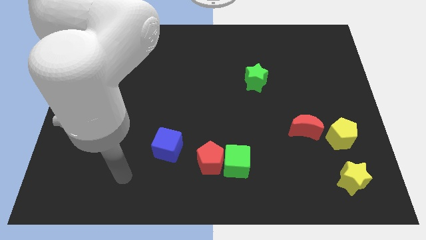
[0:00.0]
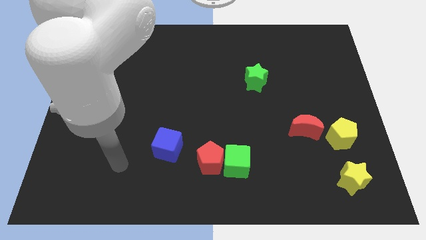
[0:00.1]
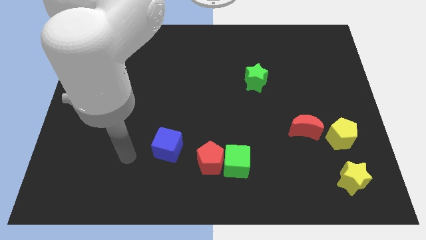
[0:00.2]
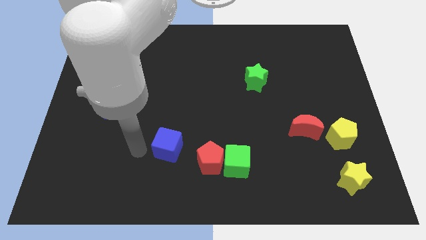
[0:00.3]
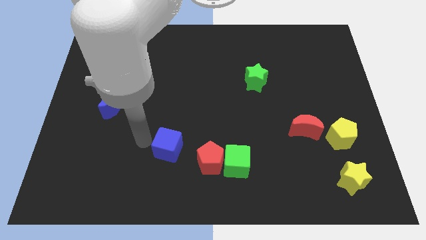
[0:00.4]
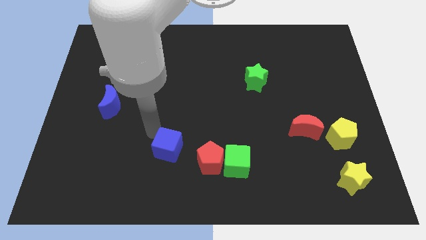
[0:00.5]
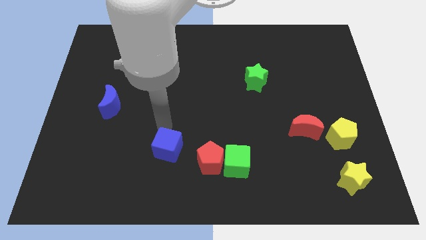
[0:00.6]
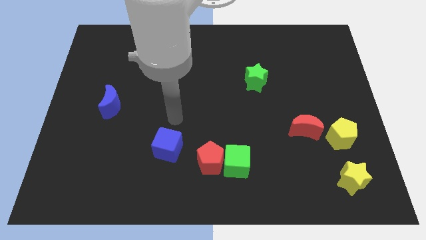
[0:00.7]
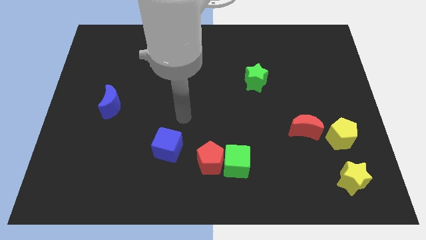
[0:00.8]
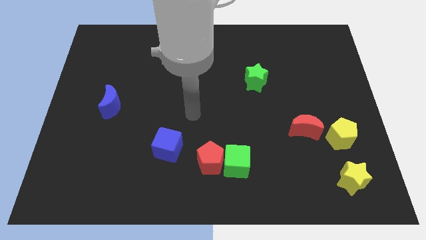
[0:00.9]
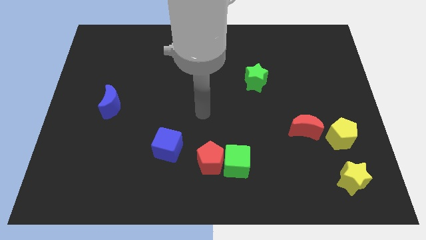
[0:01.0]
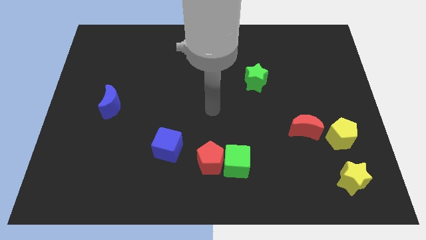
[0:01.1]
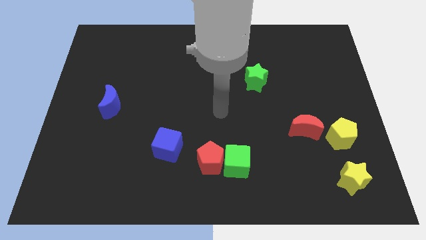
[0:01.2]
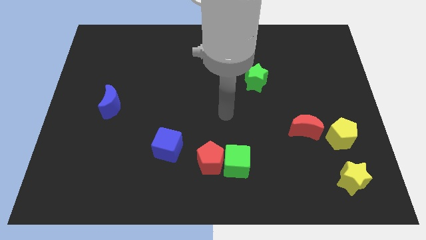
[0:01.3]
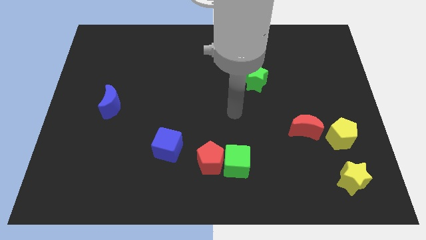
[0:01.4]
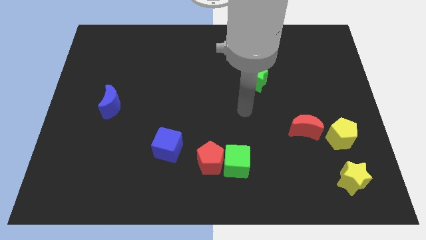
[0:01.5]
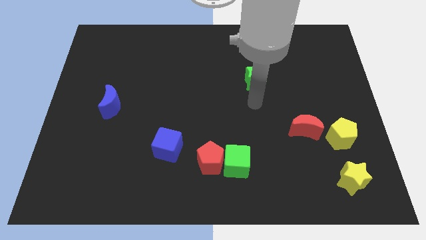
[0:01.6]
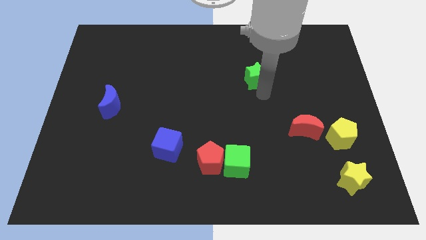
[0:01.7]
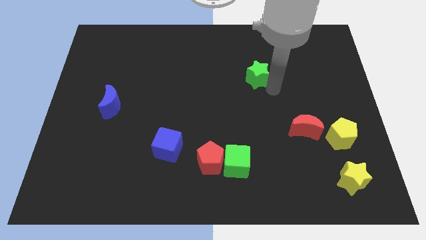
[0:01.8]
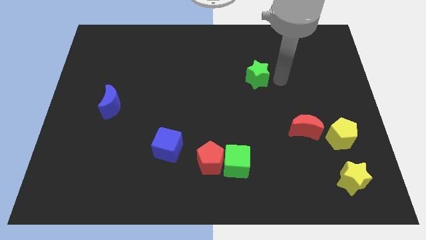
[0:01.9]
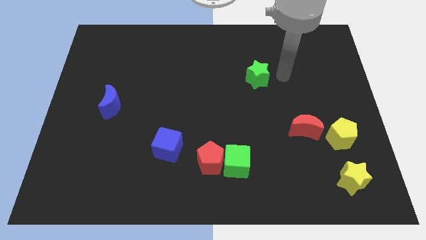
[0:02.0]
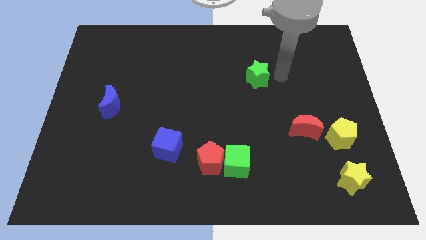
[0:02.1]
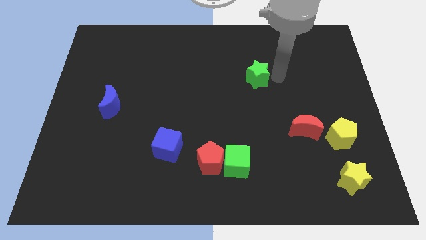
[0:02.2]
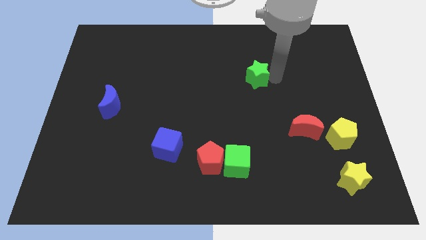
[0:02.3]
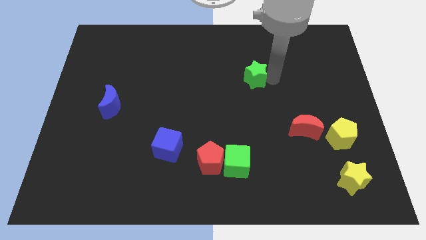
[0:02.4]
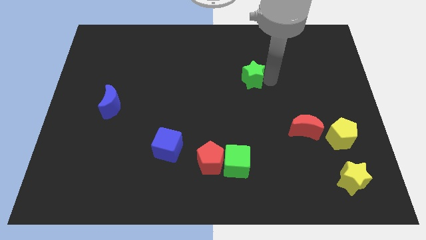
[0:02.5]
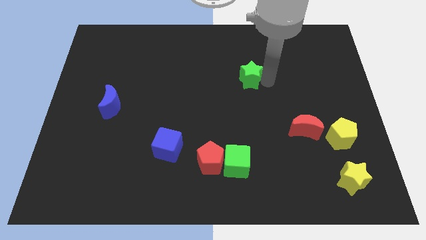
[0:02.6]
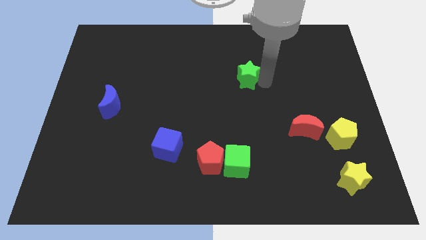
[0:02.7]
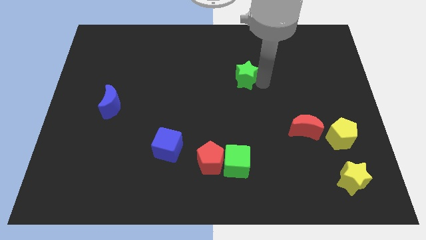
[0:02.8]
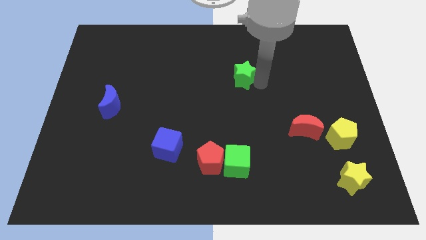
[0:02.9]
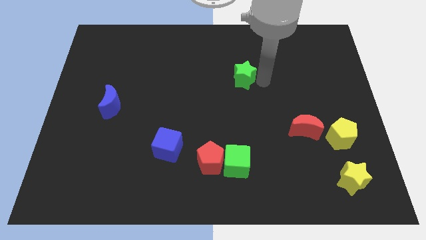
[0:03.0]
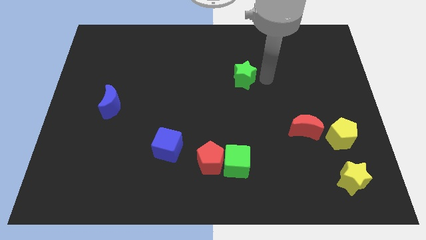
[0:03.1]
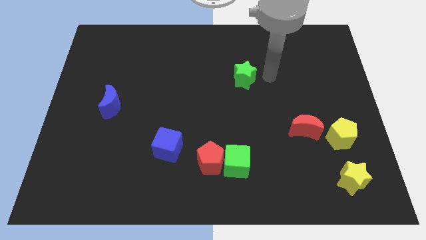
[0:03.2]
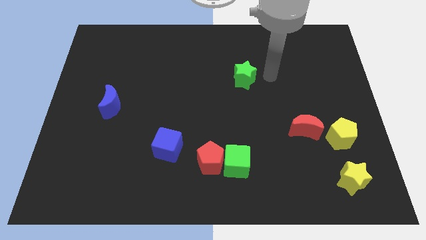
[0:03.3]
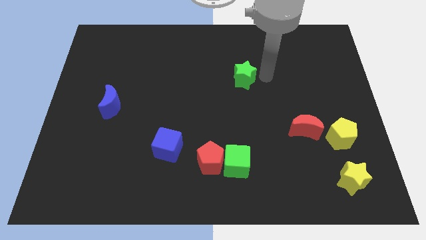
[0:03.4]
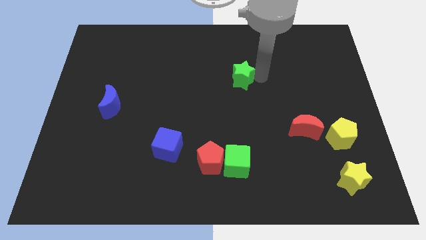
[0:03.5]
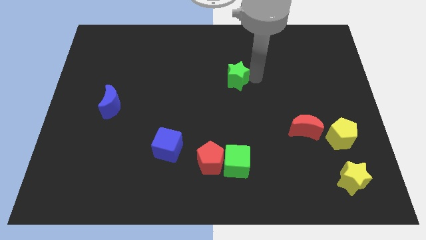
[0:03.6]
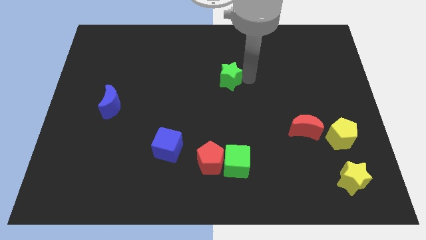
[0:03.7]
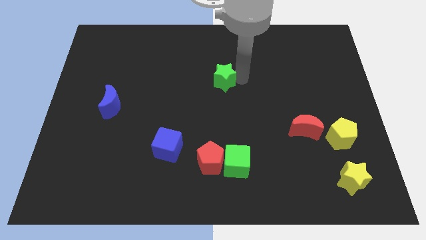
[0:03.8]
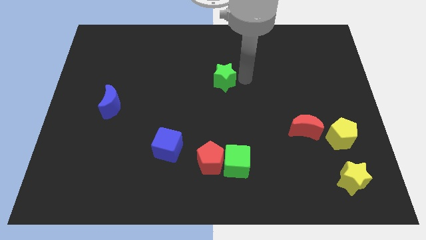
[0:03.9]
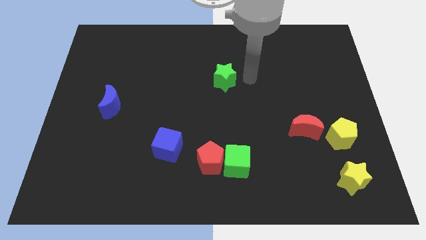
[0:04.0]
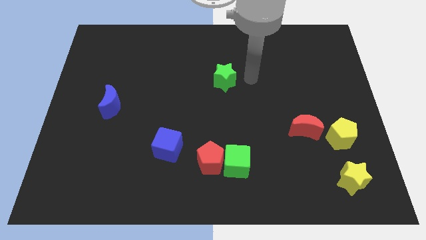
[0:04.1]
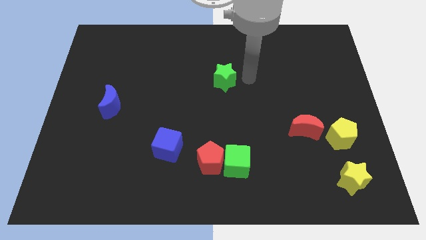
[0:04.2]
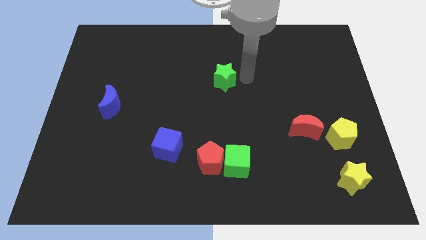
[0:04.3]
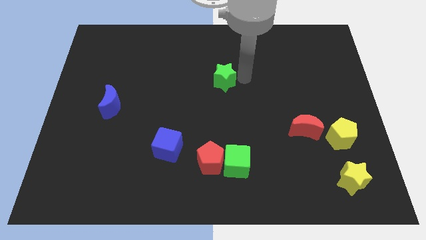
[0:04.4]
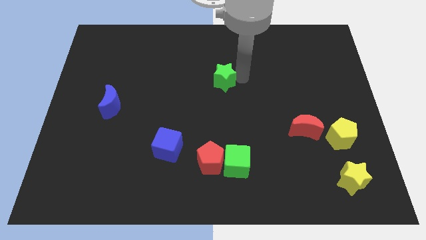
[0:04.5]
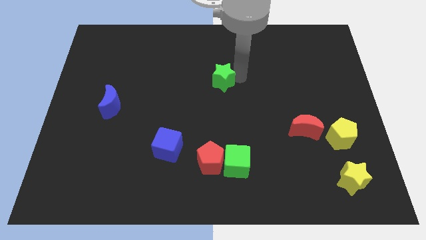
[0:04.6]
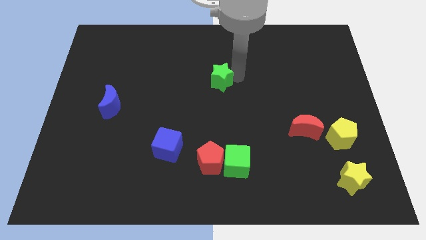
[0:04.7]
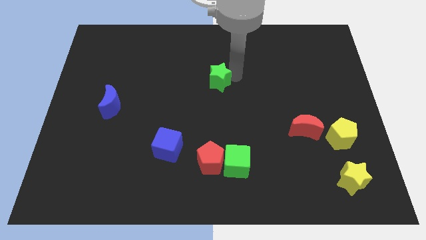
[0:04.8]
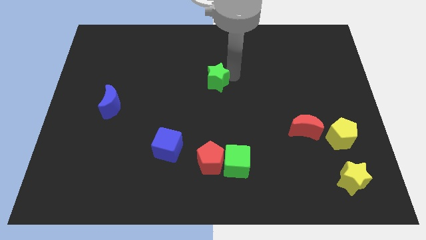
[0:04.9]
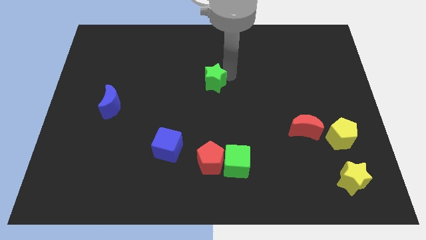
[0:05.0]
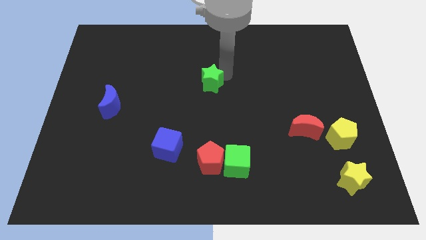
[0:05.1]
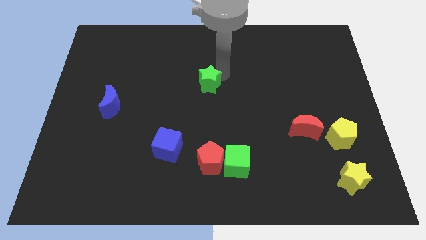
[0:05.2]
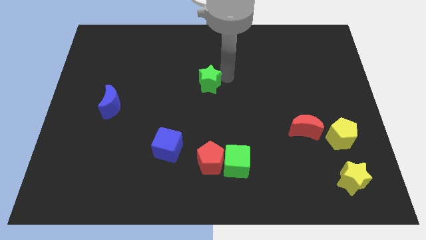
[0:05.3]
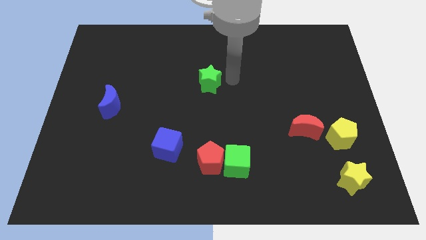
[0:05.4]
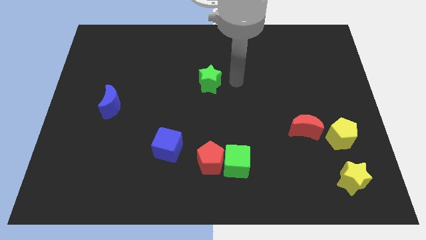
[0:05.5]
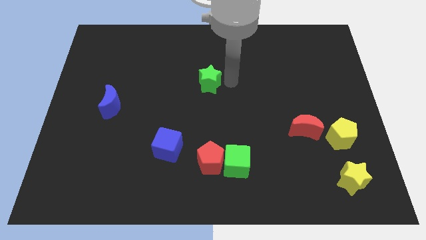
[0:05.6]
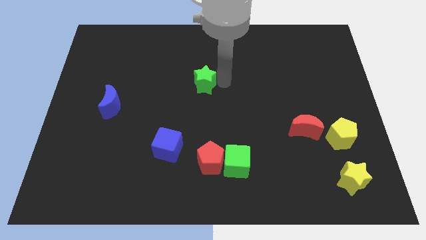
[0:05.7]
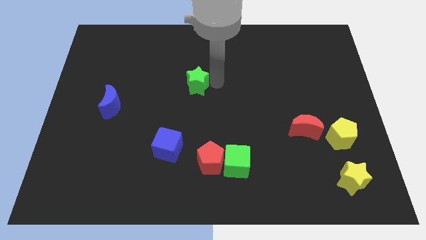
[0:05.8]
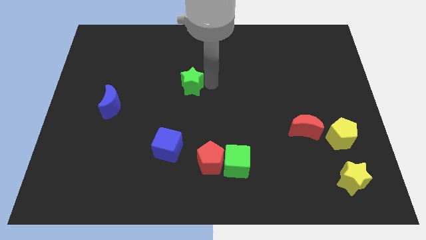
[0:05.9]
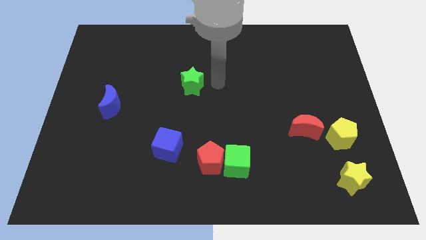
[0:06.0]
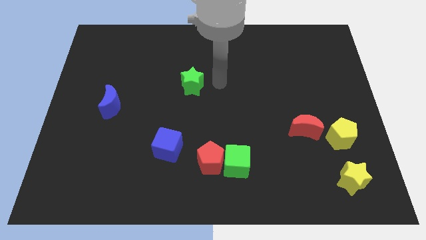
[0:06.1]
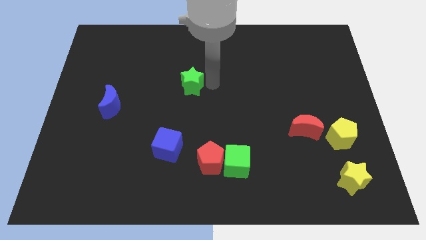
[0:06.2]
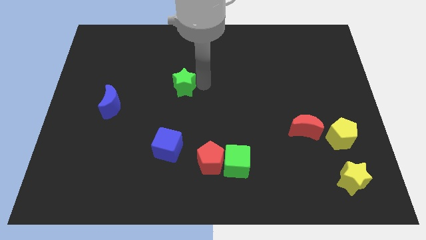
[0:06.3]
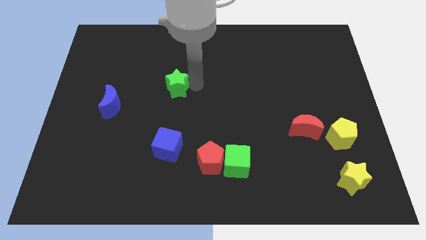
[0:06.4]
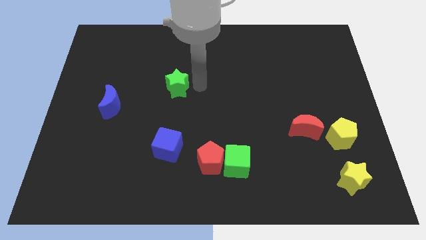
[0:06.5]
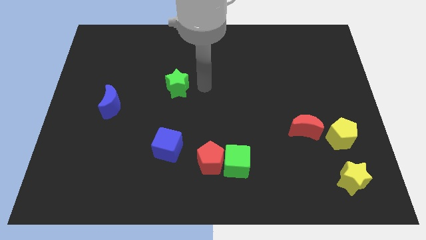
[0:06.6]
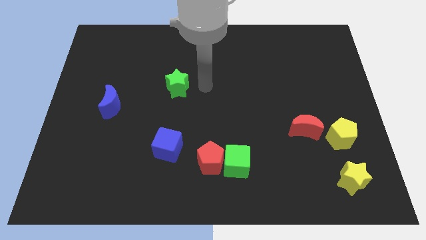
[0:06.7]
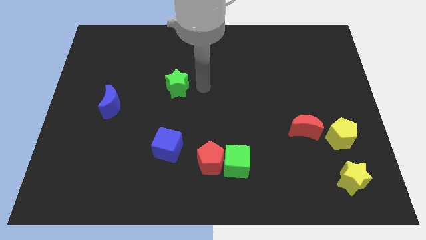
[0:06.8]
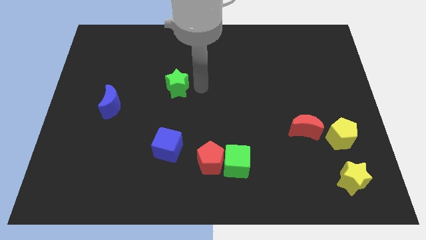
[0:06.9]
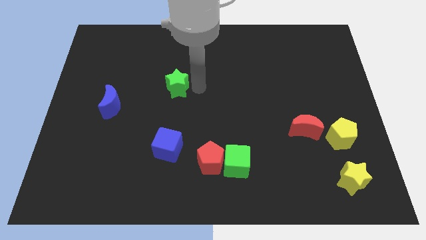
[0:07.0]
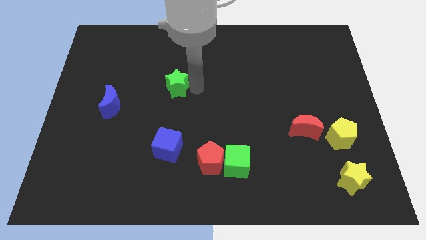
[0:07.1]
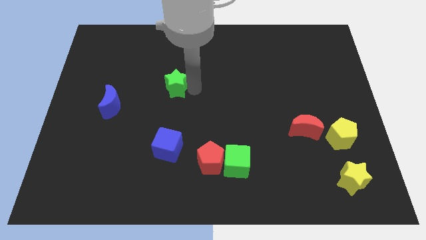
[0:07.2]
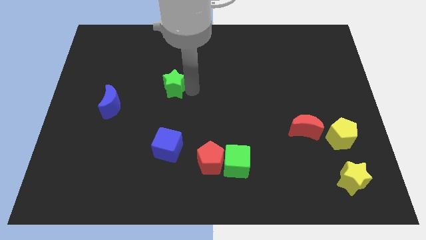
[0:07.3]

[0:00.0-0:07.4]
slide the green star to the left

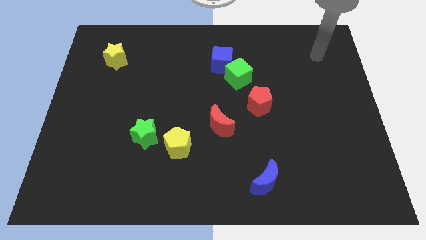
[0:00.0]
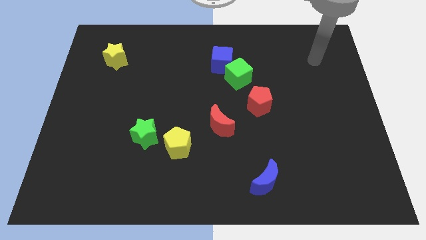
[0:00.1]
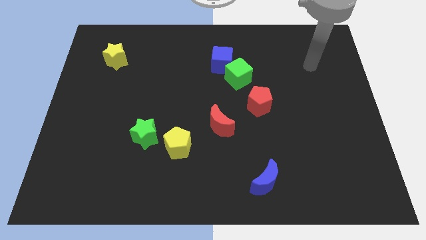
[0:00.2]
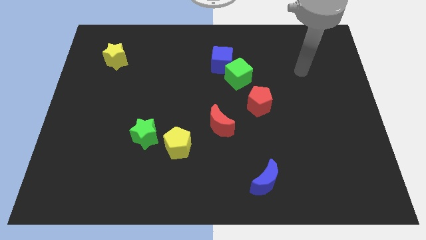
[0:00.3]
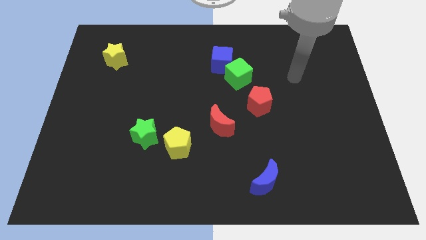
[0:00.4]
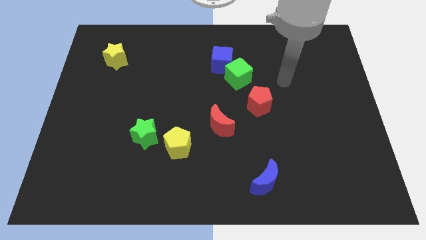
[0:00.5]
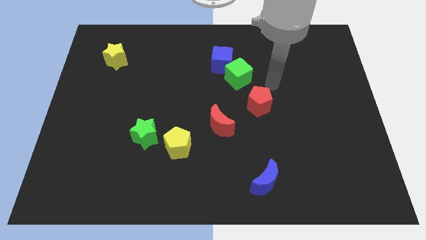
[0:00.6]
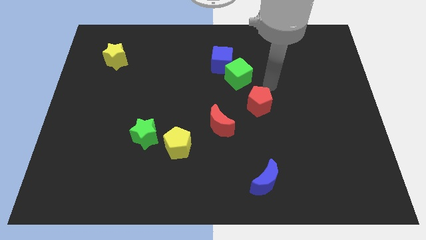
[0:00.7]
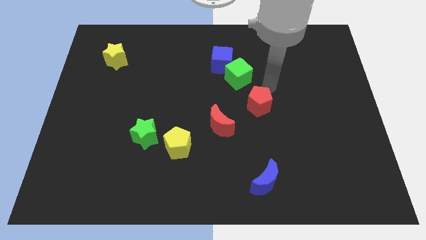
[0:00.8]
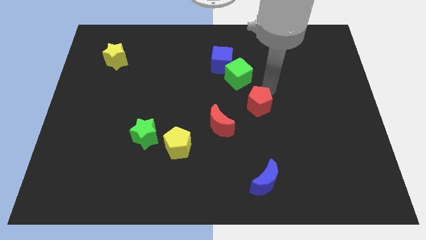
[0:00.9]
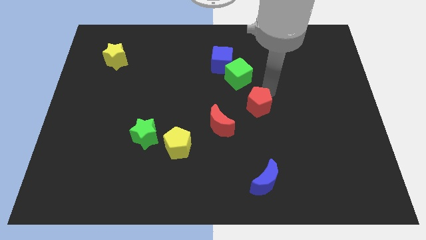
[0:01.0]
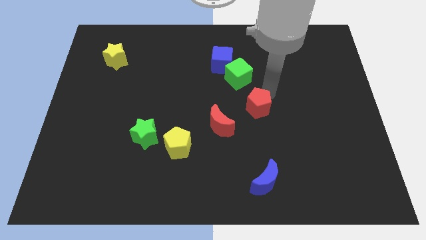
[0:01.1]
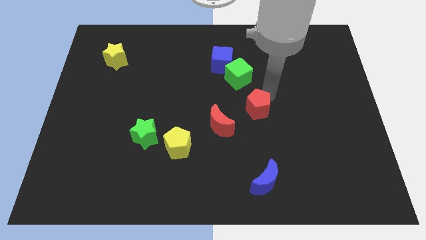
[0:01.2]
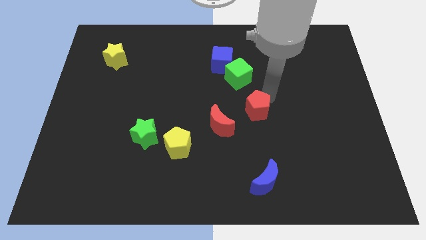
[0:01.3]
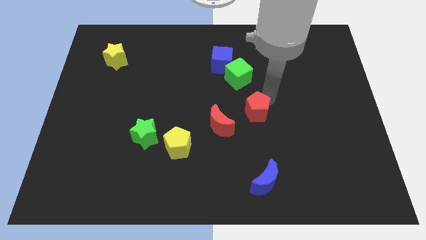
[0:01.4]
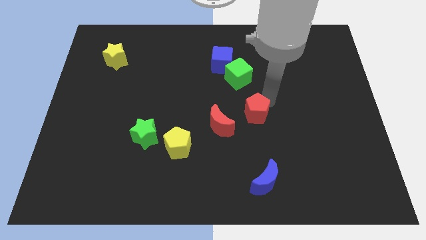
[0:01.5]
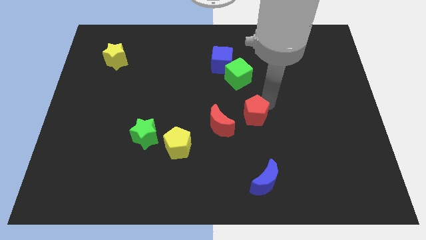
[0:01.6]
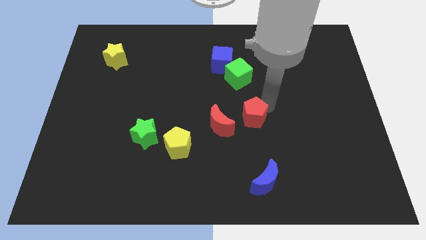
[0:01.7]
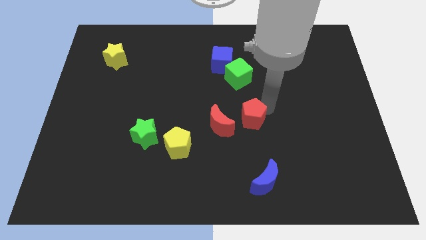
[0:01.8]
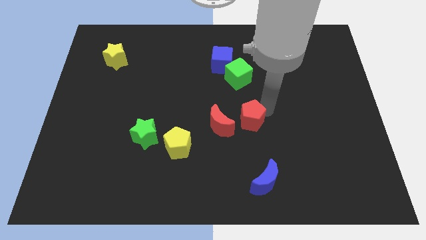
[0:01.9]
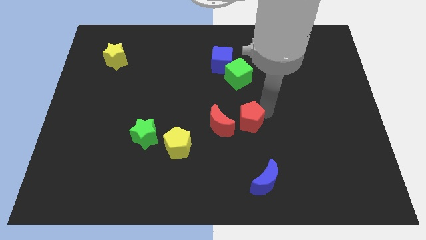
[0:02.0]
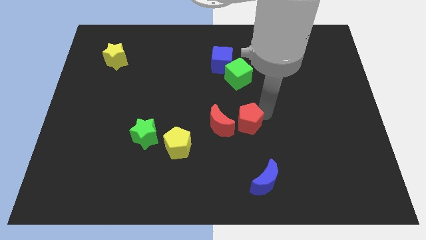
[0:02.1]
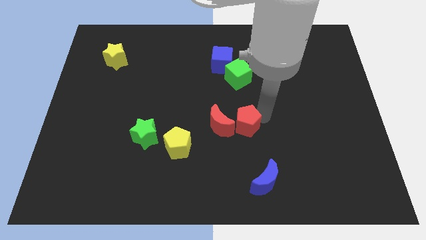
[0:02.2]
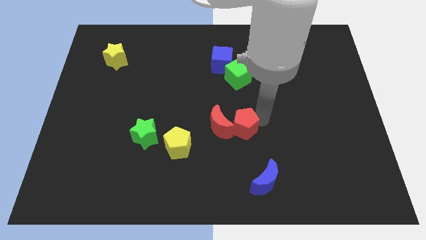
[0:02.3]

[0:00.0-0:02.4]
push the red pentagon diagonally down and to the left a bit
